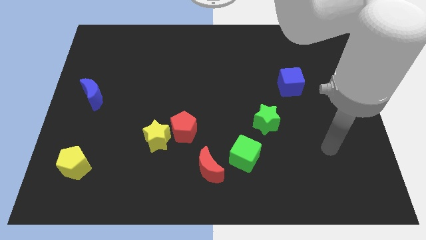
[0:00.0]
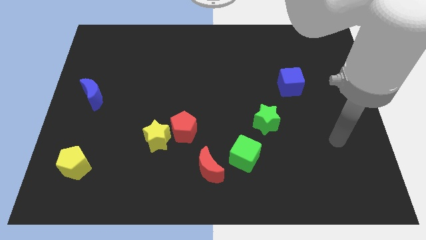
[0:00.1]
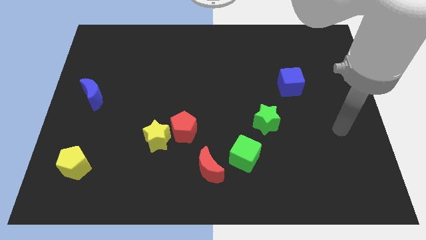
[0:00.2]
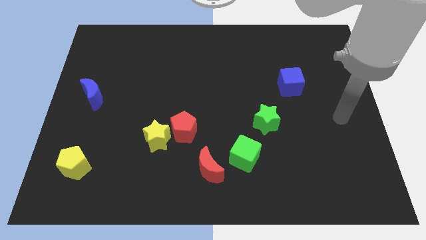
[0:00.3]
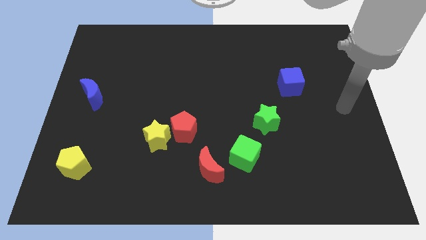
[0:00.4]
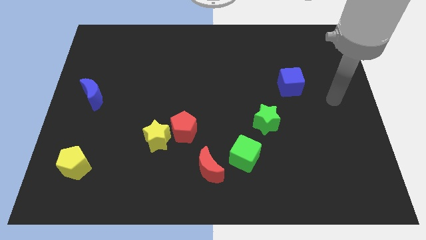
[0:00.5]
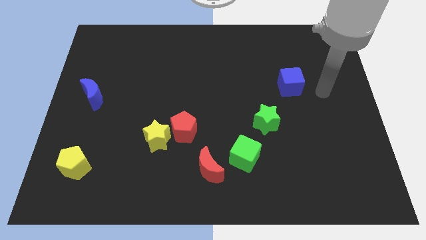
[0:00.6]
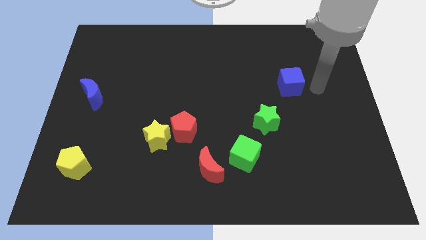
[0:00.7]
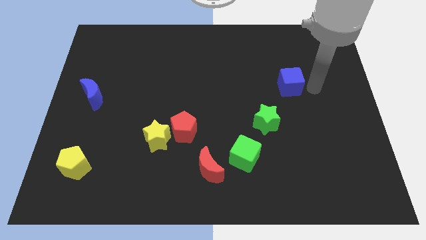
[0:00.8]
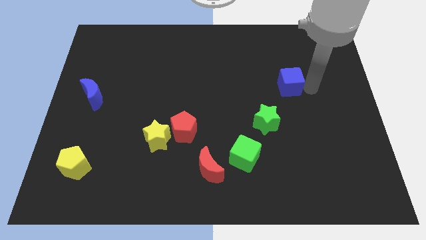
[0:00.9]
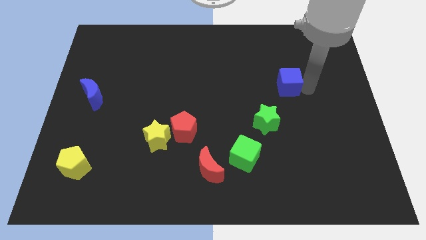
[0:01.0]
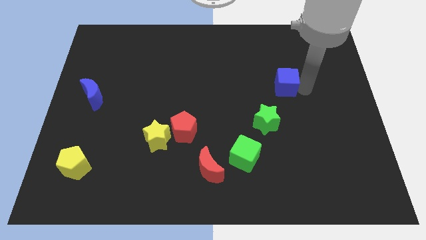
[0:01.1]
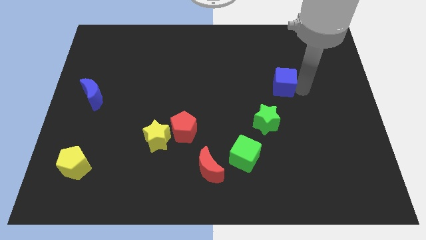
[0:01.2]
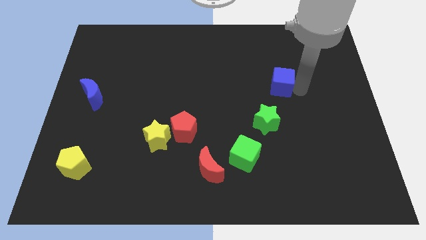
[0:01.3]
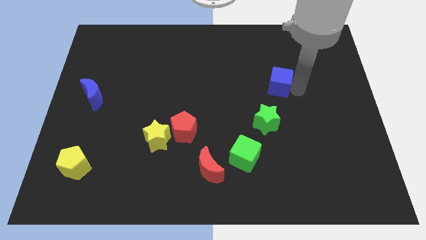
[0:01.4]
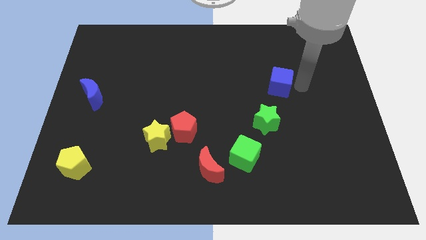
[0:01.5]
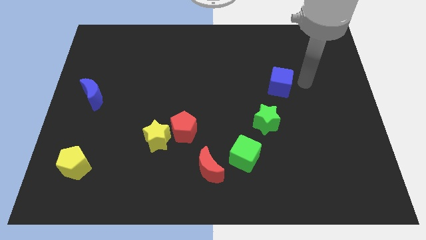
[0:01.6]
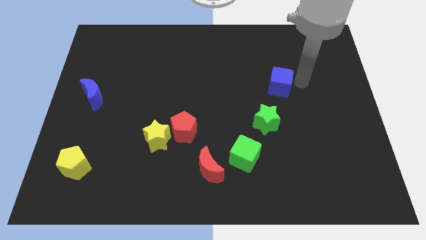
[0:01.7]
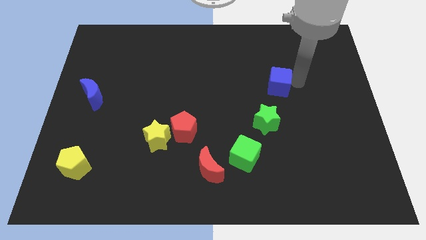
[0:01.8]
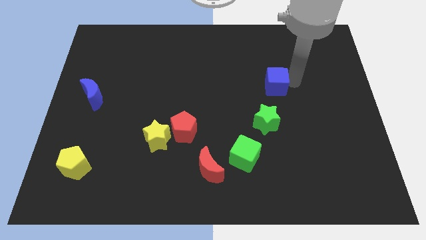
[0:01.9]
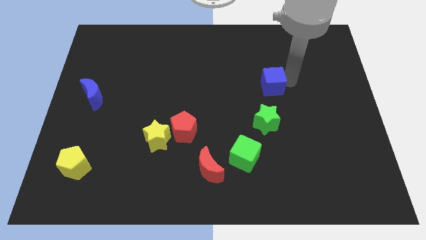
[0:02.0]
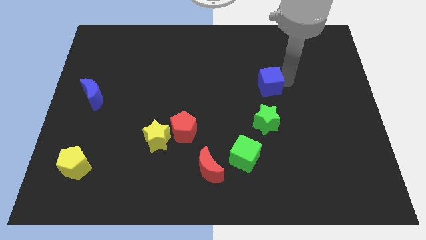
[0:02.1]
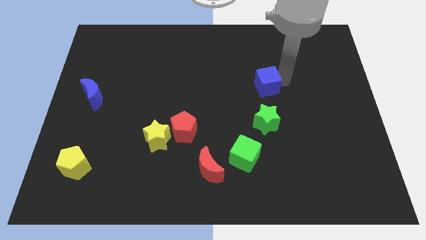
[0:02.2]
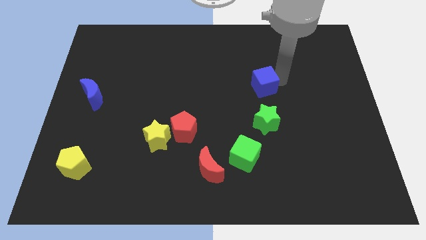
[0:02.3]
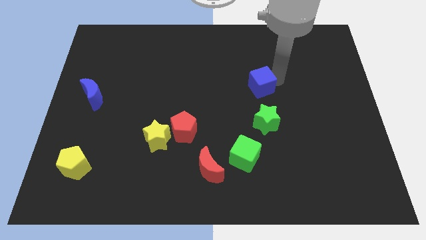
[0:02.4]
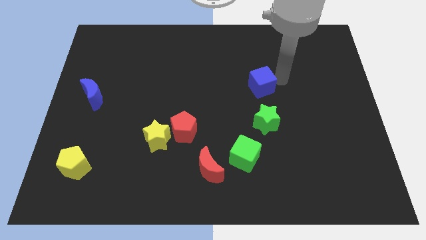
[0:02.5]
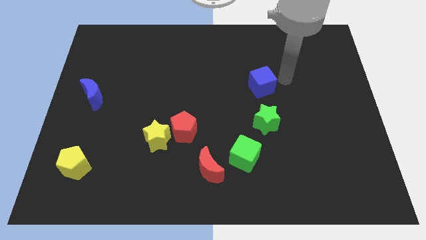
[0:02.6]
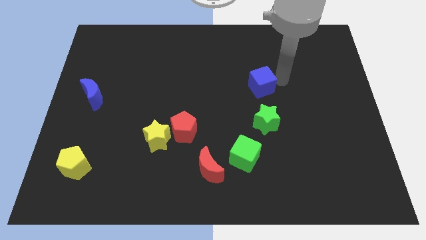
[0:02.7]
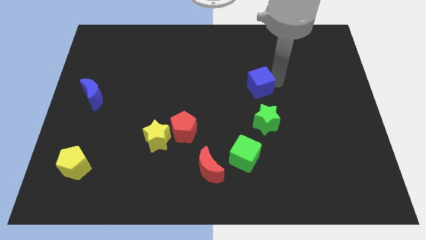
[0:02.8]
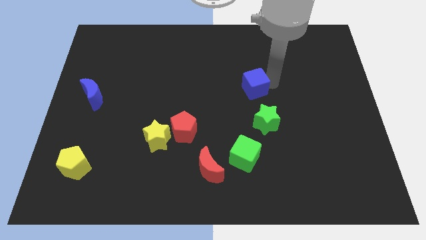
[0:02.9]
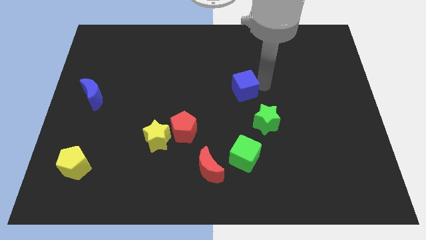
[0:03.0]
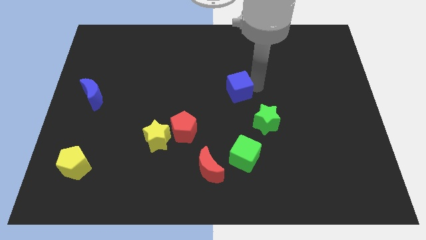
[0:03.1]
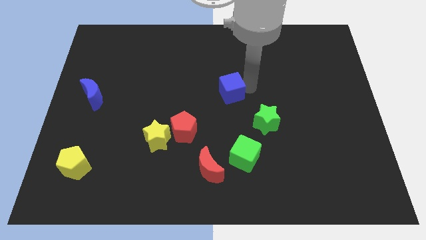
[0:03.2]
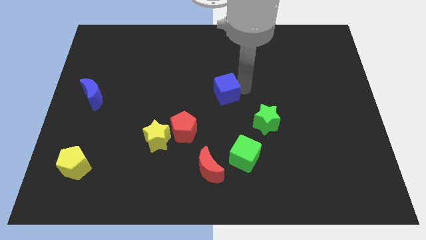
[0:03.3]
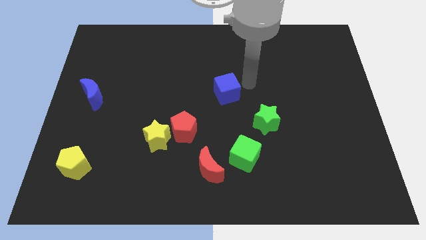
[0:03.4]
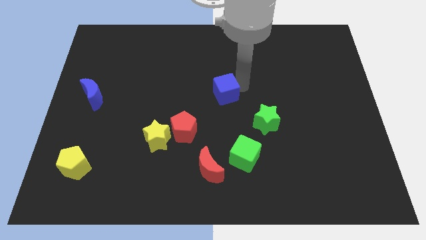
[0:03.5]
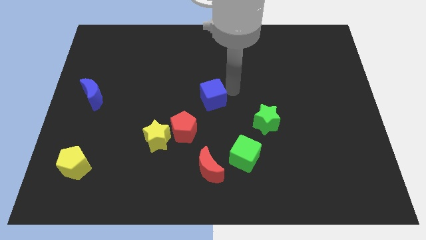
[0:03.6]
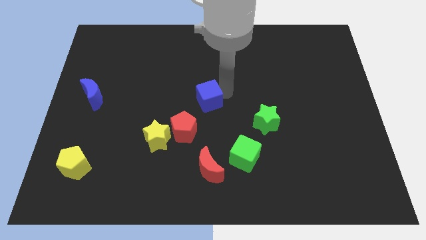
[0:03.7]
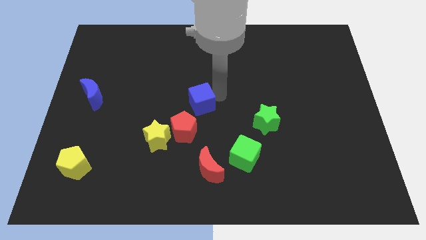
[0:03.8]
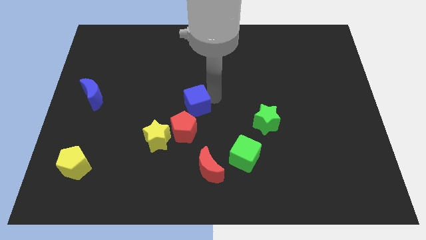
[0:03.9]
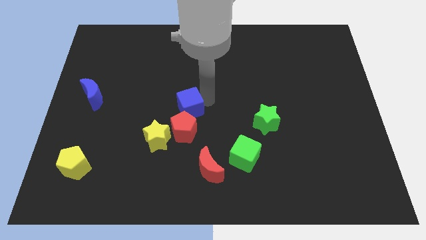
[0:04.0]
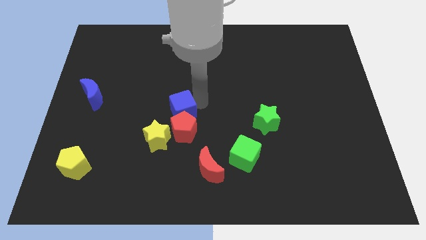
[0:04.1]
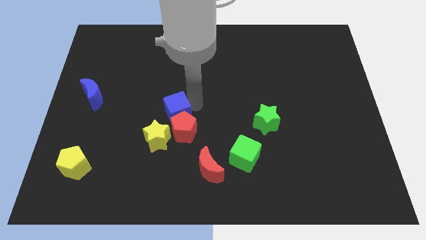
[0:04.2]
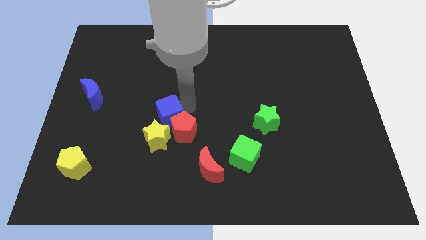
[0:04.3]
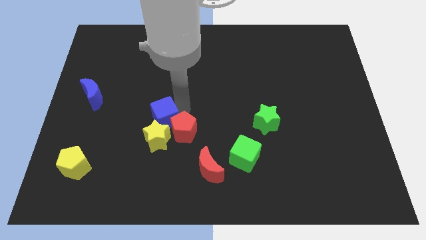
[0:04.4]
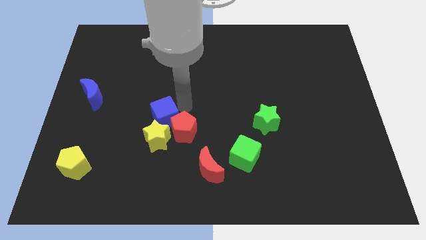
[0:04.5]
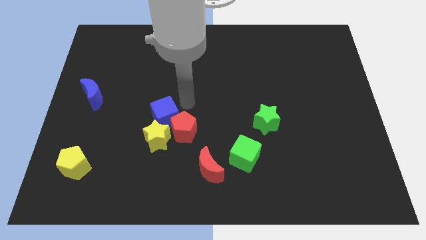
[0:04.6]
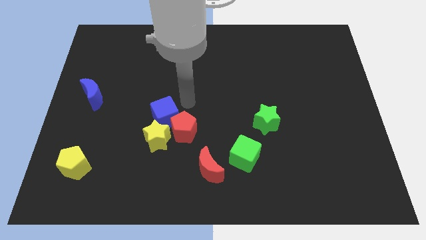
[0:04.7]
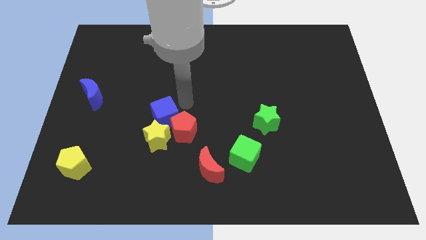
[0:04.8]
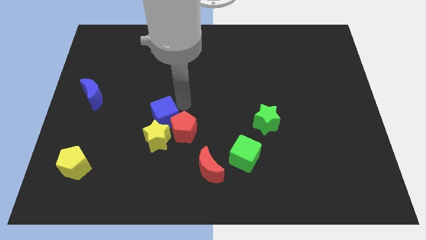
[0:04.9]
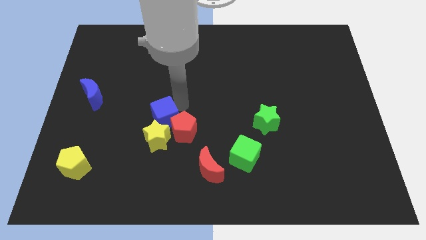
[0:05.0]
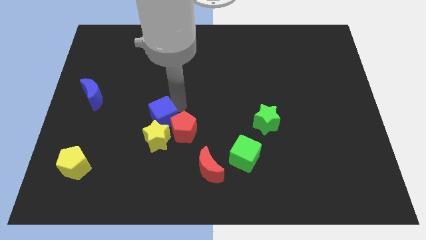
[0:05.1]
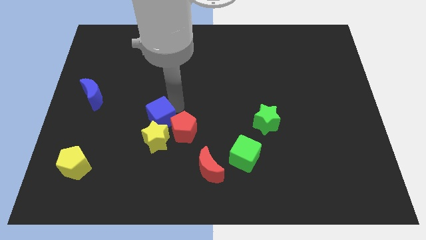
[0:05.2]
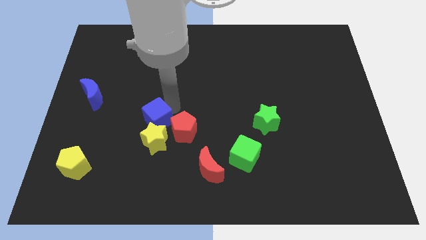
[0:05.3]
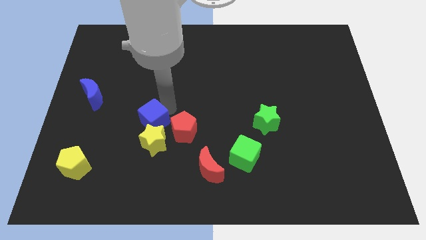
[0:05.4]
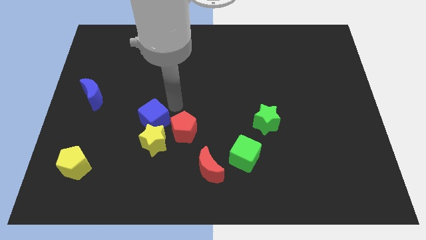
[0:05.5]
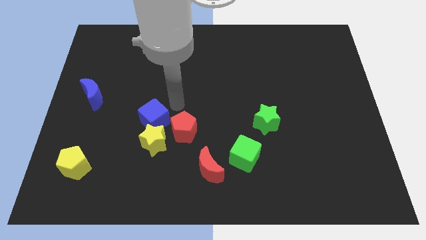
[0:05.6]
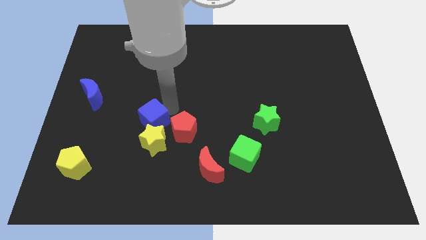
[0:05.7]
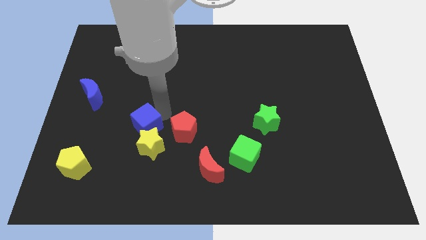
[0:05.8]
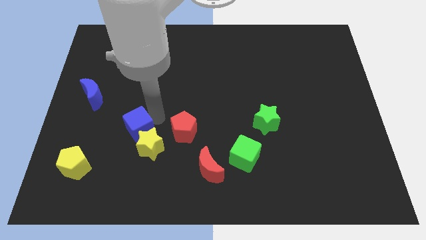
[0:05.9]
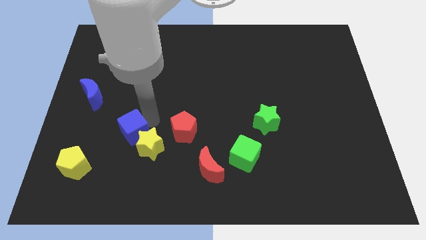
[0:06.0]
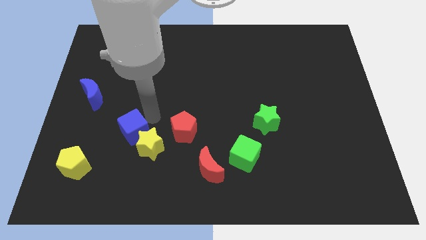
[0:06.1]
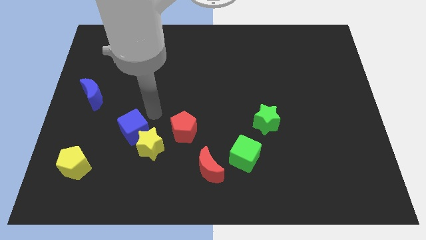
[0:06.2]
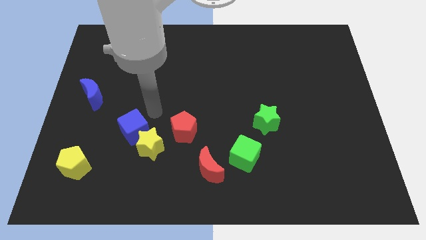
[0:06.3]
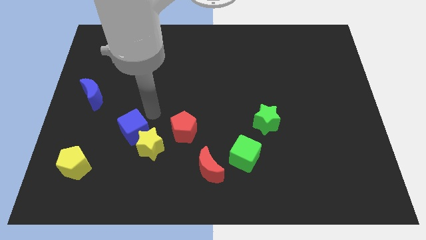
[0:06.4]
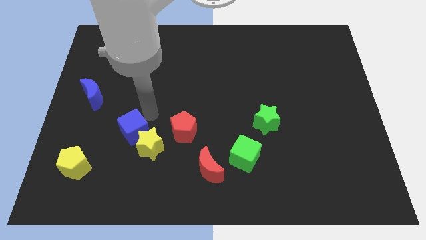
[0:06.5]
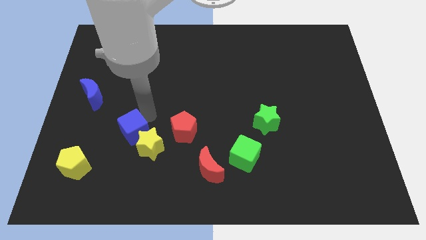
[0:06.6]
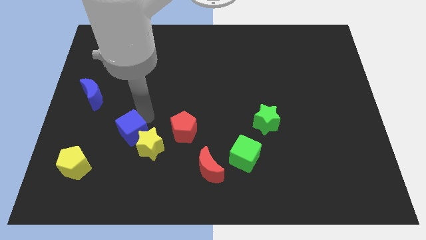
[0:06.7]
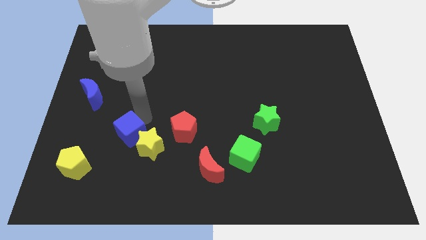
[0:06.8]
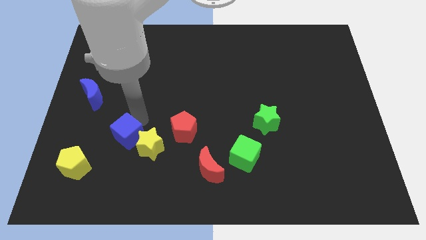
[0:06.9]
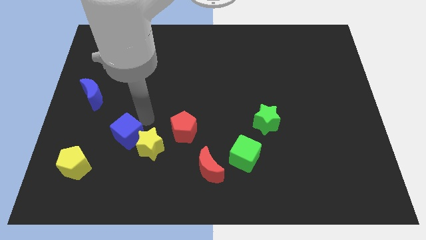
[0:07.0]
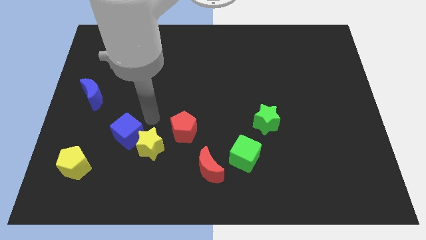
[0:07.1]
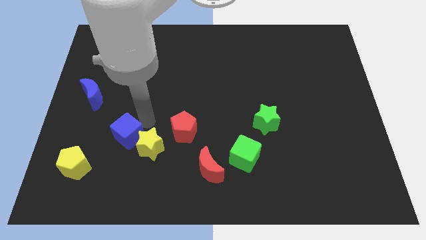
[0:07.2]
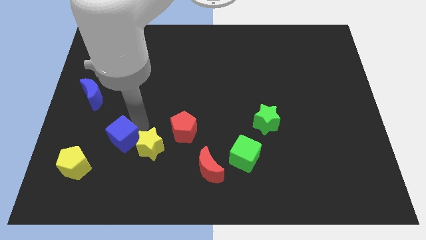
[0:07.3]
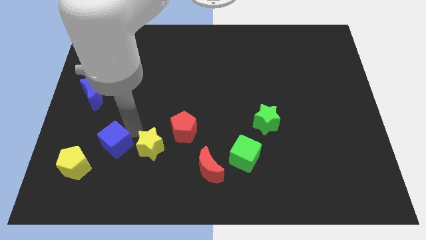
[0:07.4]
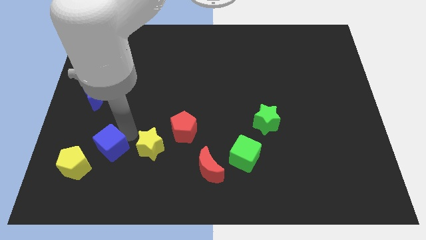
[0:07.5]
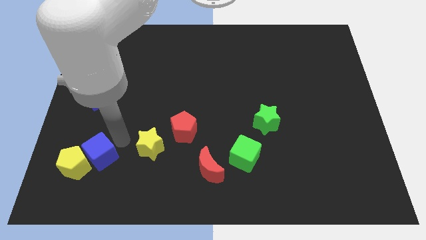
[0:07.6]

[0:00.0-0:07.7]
put the blue cube towards the yellow pentagon
